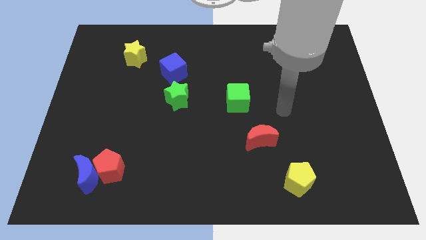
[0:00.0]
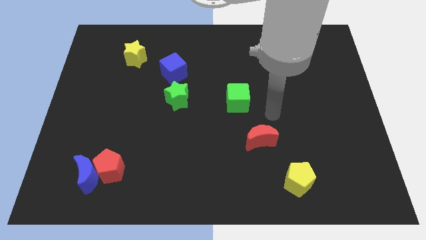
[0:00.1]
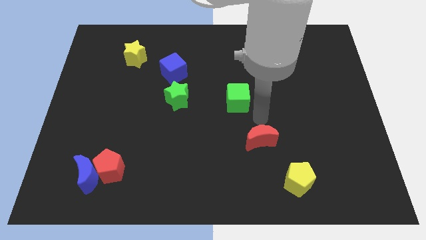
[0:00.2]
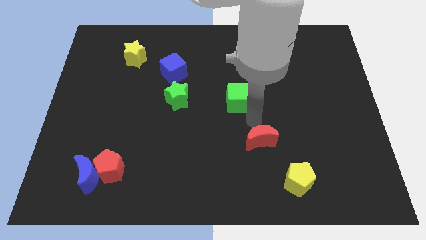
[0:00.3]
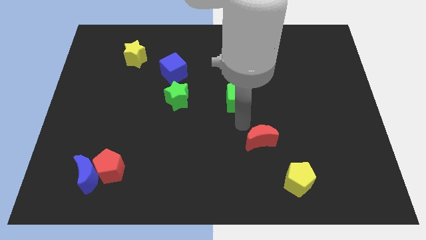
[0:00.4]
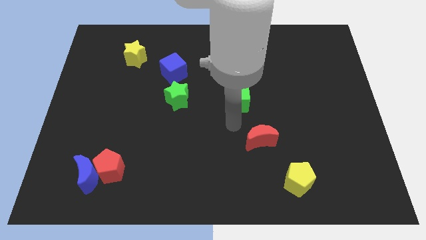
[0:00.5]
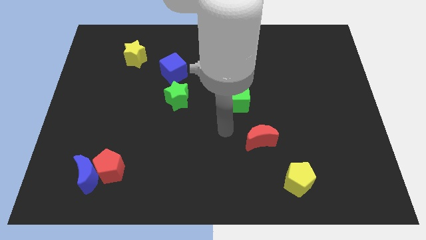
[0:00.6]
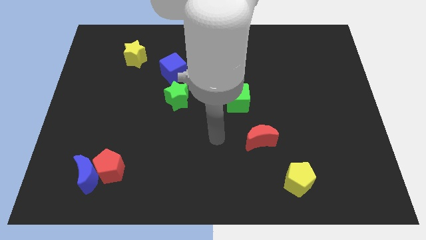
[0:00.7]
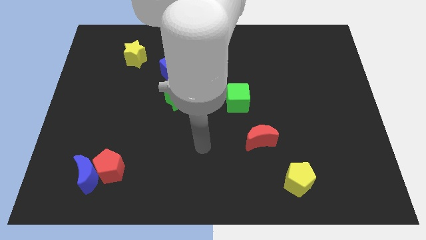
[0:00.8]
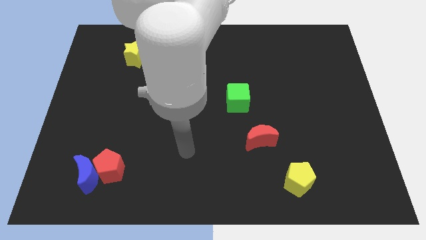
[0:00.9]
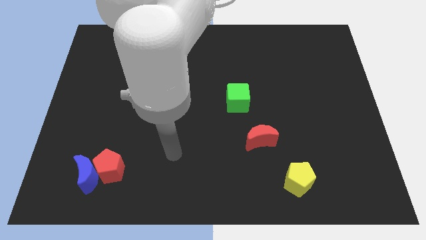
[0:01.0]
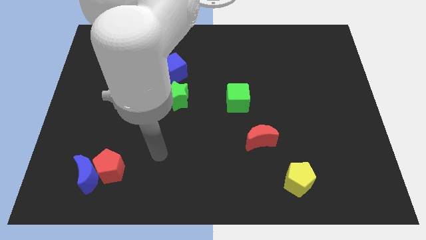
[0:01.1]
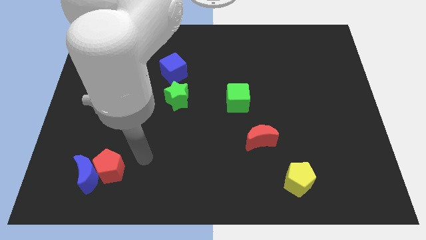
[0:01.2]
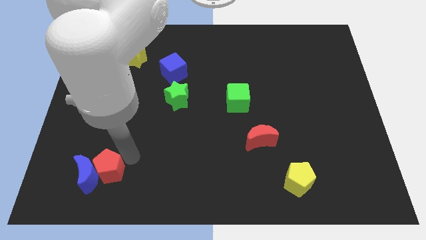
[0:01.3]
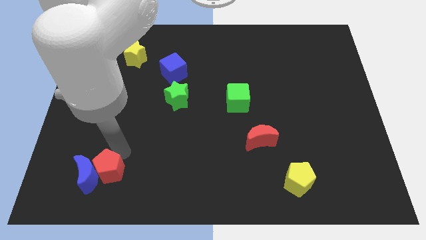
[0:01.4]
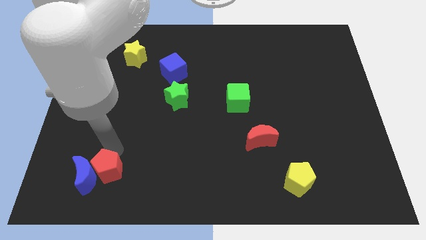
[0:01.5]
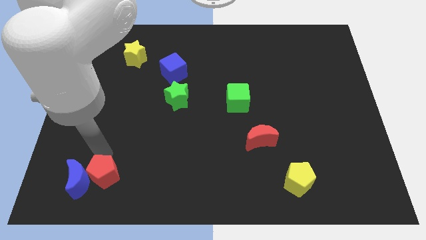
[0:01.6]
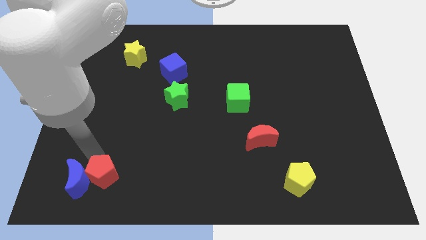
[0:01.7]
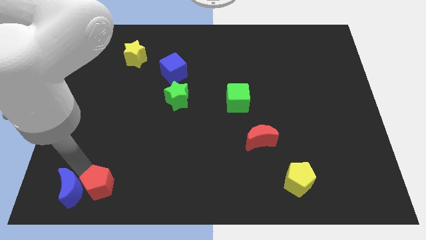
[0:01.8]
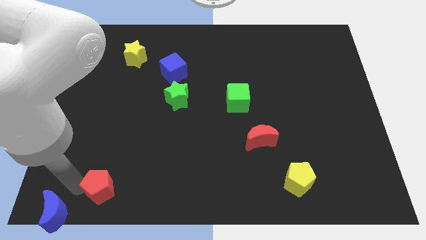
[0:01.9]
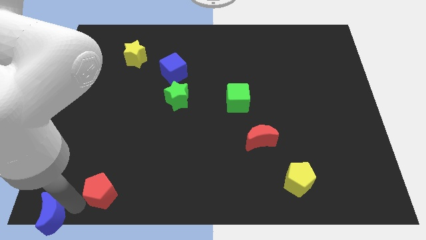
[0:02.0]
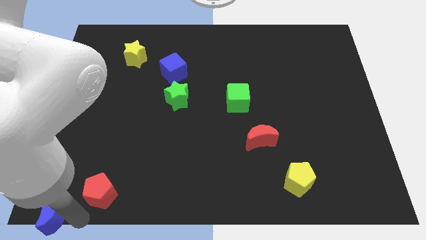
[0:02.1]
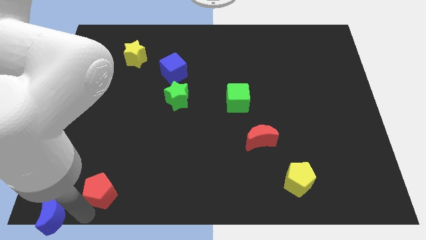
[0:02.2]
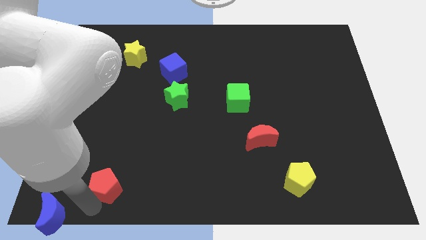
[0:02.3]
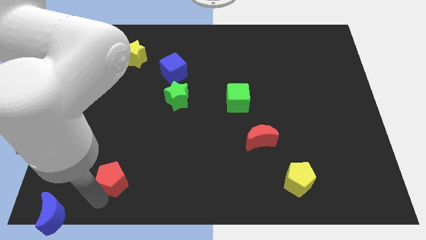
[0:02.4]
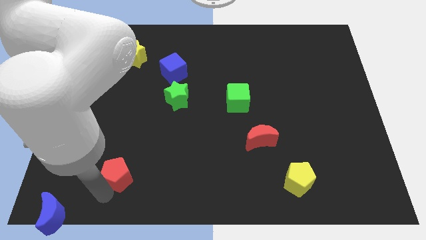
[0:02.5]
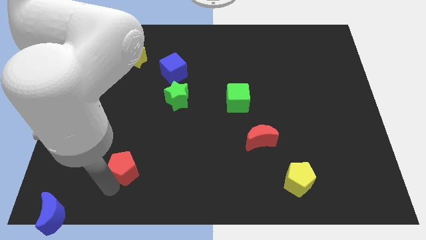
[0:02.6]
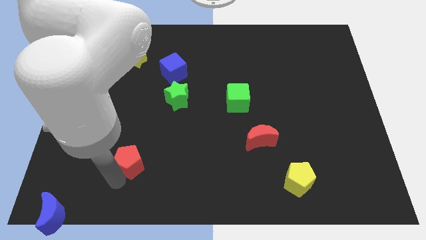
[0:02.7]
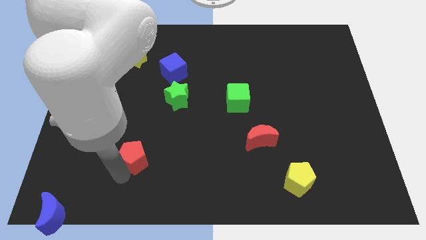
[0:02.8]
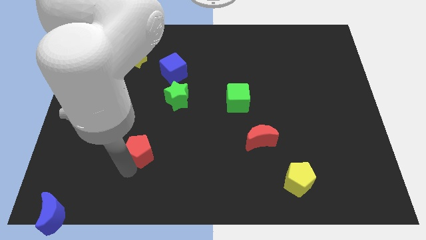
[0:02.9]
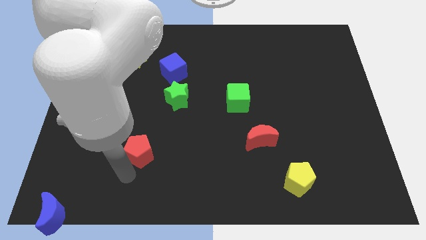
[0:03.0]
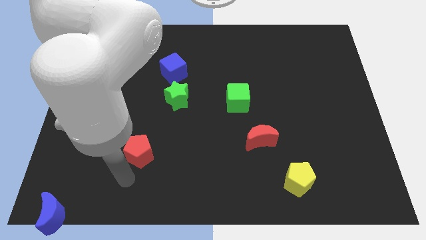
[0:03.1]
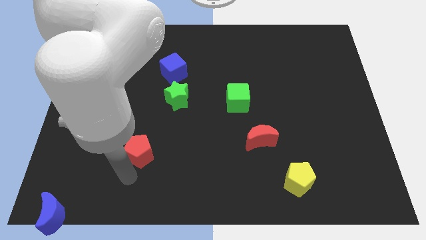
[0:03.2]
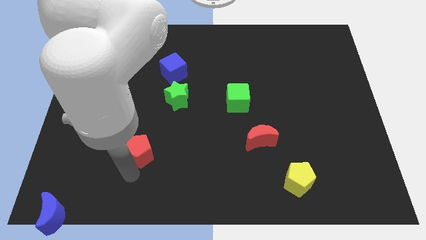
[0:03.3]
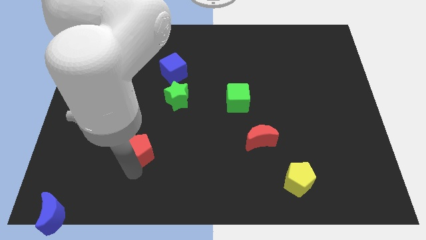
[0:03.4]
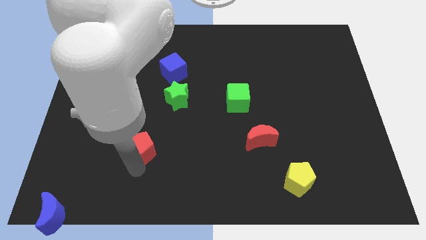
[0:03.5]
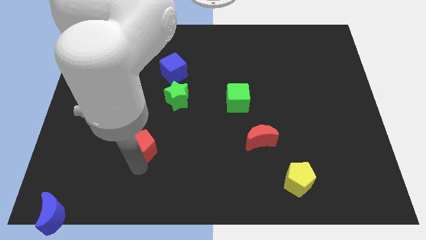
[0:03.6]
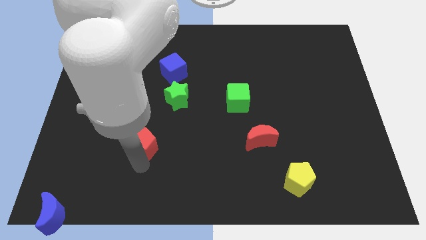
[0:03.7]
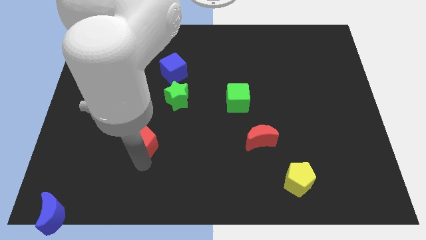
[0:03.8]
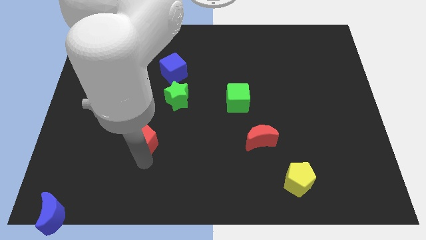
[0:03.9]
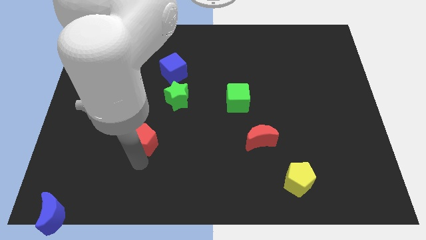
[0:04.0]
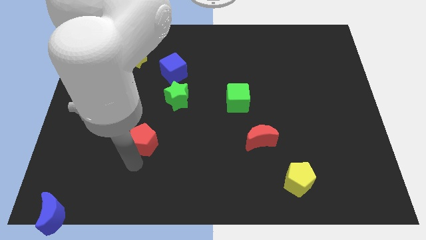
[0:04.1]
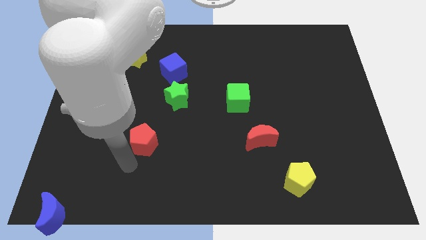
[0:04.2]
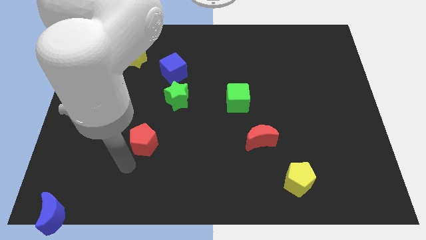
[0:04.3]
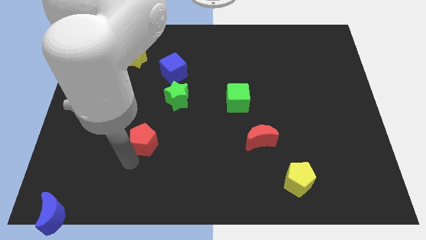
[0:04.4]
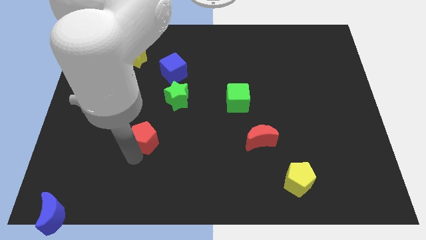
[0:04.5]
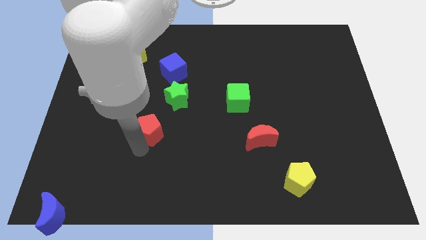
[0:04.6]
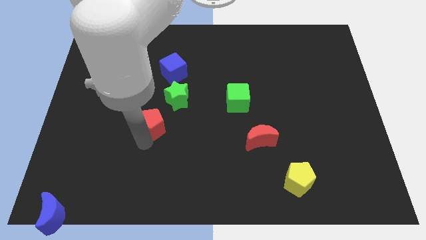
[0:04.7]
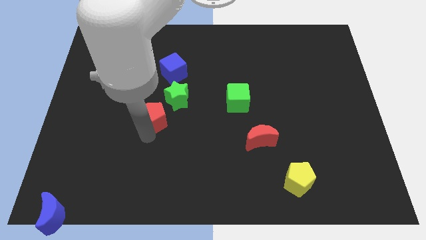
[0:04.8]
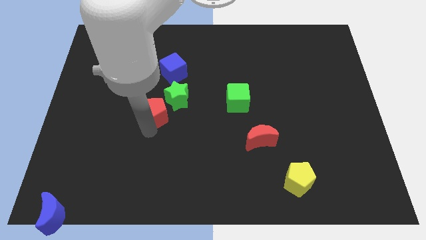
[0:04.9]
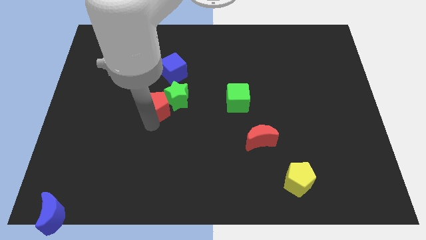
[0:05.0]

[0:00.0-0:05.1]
move the red pentagon next to the green star
